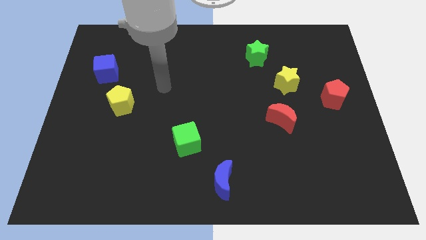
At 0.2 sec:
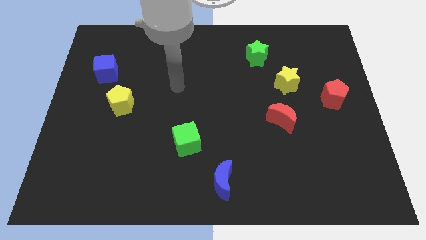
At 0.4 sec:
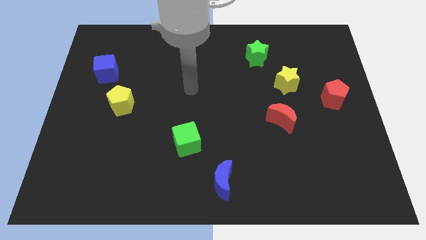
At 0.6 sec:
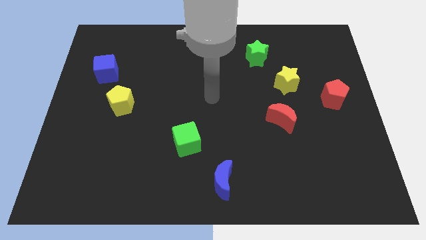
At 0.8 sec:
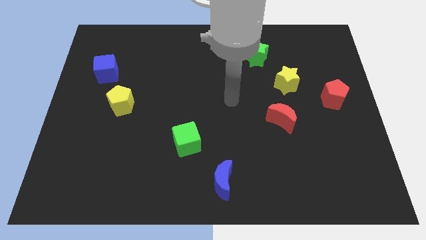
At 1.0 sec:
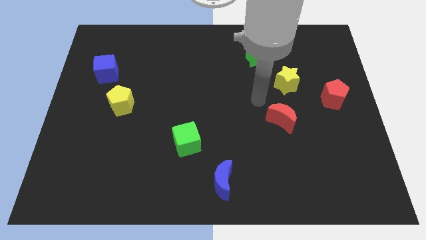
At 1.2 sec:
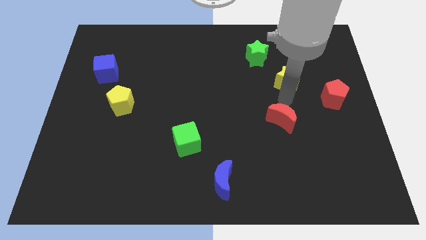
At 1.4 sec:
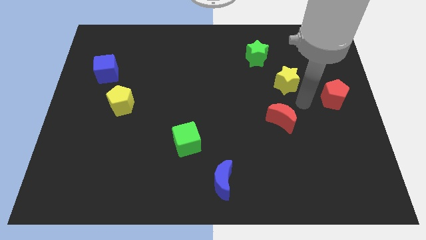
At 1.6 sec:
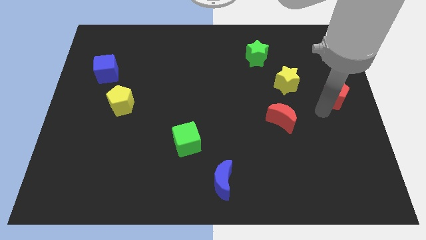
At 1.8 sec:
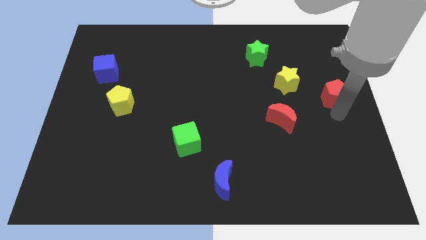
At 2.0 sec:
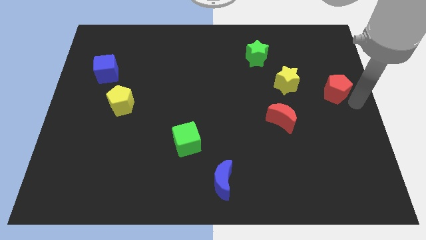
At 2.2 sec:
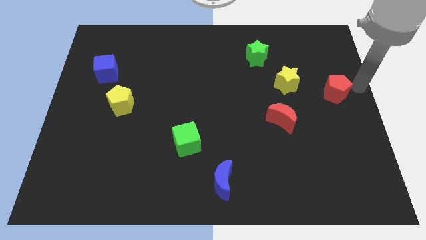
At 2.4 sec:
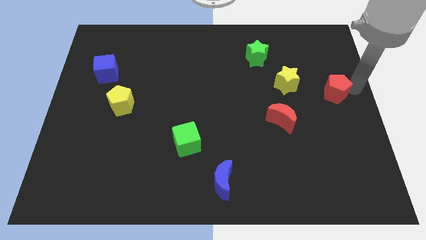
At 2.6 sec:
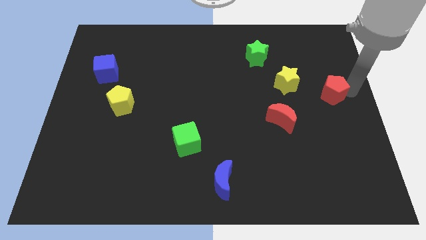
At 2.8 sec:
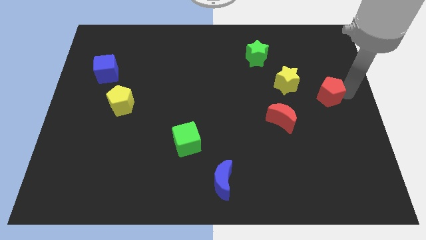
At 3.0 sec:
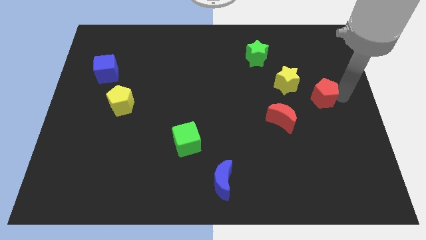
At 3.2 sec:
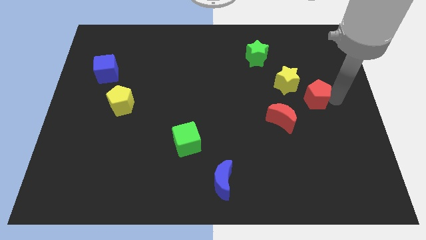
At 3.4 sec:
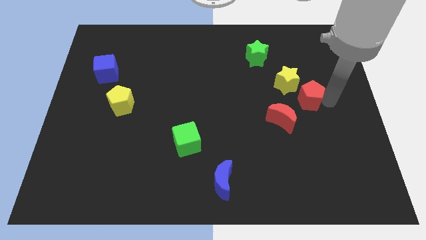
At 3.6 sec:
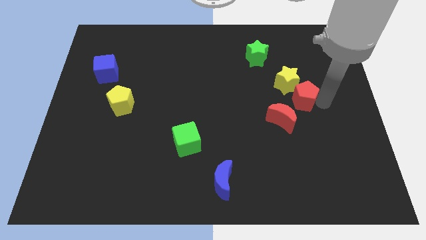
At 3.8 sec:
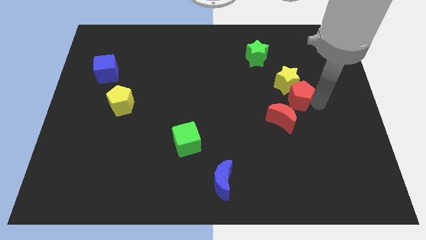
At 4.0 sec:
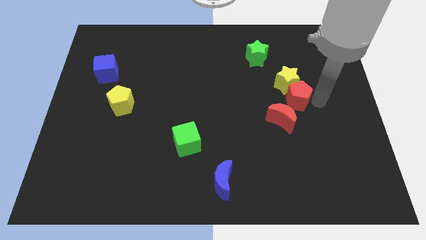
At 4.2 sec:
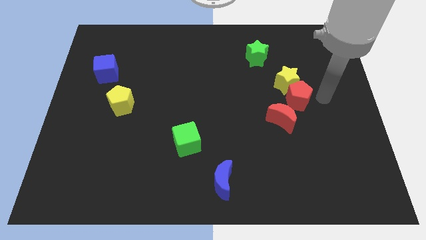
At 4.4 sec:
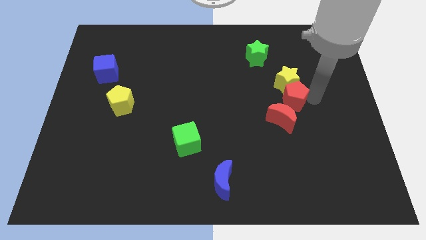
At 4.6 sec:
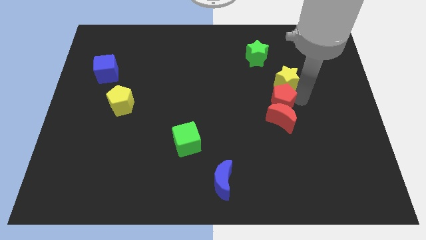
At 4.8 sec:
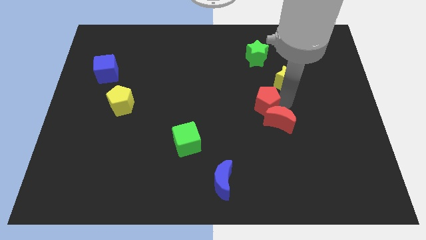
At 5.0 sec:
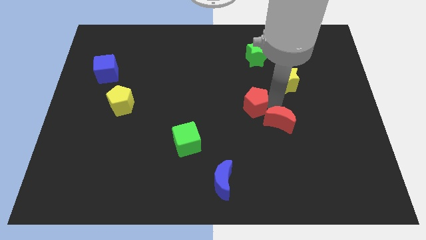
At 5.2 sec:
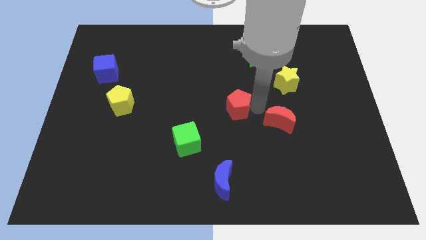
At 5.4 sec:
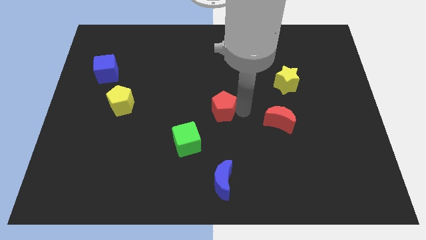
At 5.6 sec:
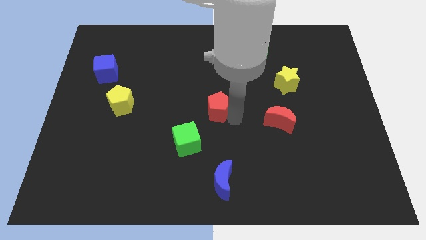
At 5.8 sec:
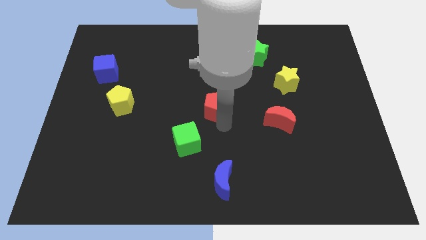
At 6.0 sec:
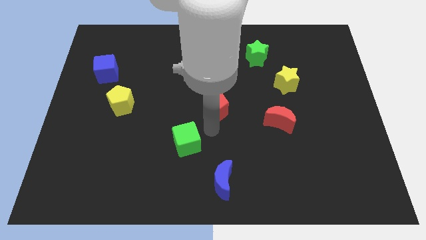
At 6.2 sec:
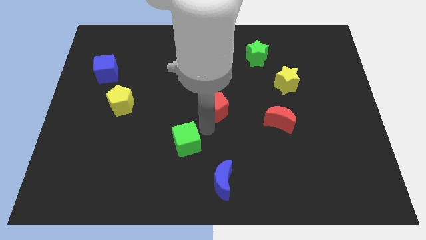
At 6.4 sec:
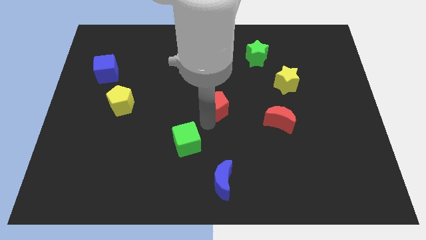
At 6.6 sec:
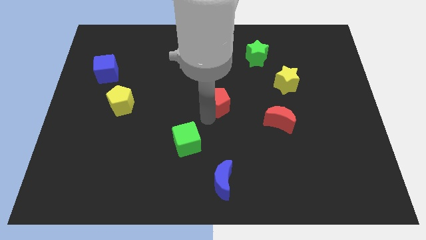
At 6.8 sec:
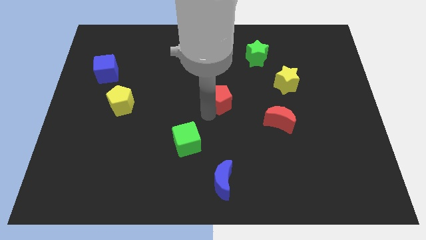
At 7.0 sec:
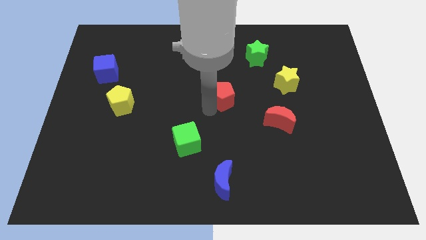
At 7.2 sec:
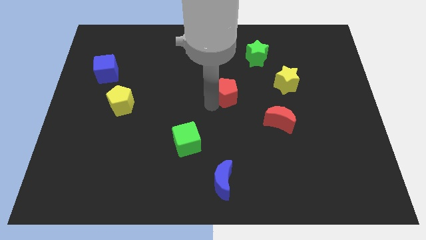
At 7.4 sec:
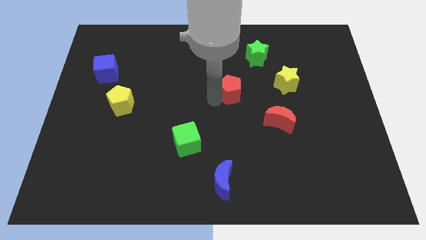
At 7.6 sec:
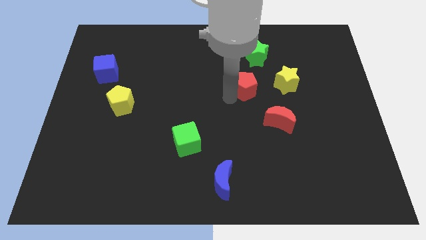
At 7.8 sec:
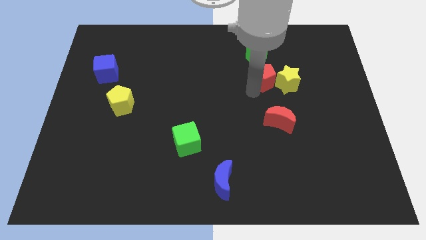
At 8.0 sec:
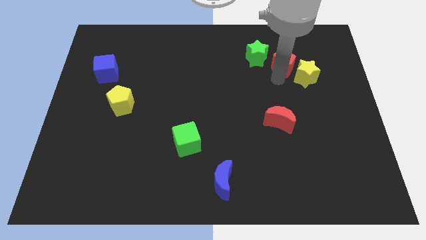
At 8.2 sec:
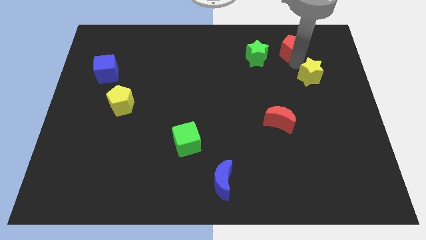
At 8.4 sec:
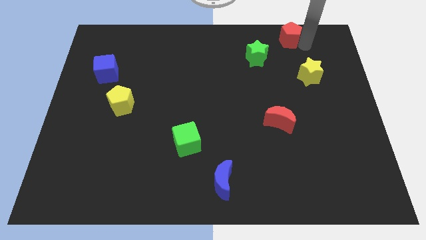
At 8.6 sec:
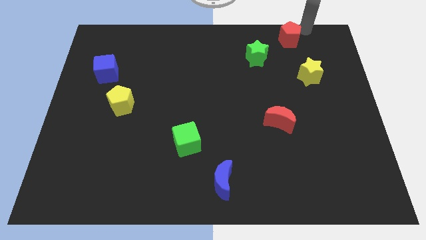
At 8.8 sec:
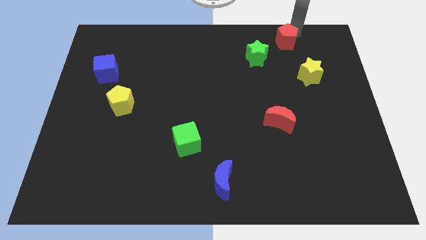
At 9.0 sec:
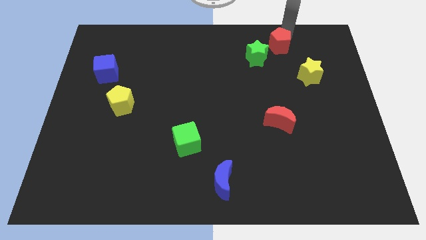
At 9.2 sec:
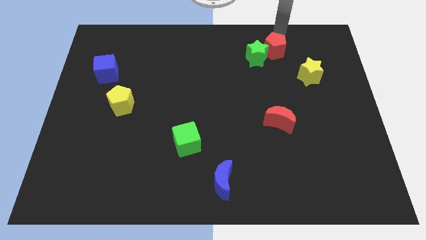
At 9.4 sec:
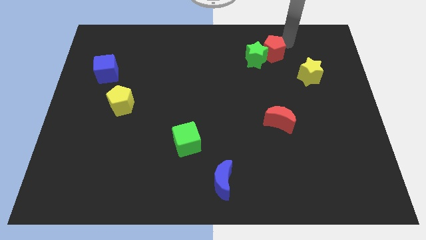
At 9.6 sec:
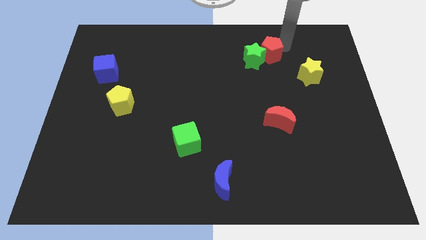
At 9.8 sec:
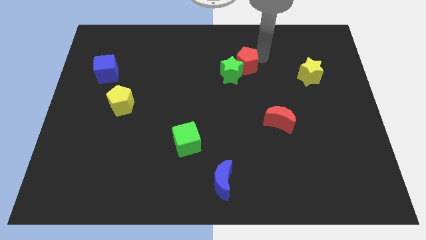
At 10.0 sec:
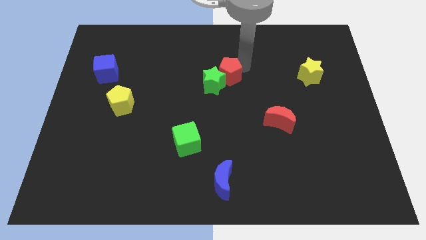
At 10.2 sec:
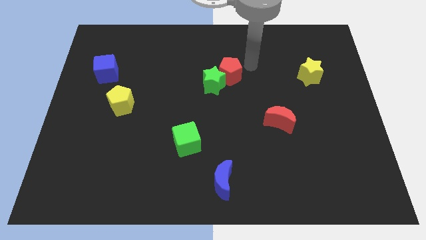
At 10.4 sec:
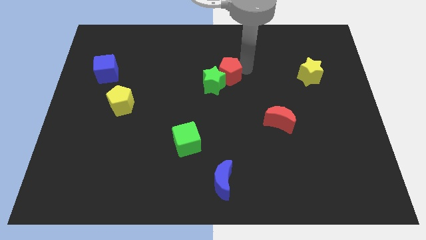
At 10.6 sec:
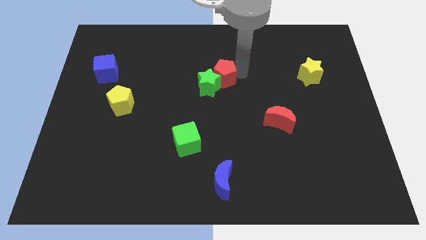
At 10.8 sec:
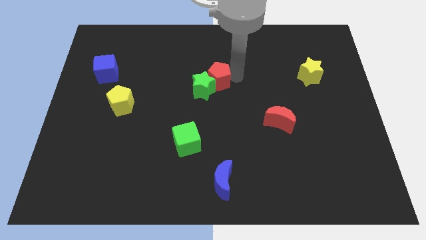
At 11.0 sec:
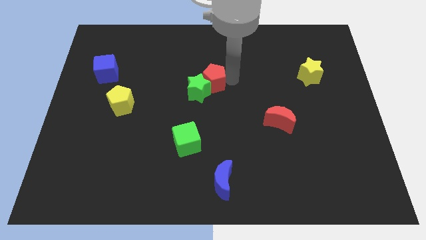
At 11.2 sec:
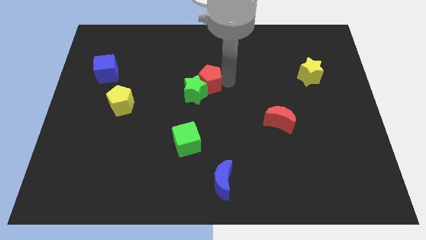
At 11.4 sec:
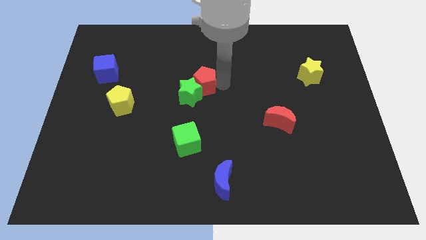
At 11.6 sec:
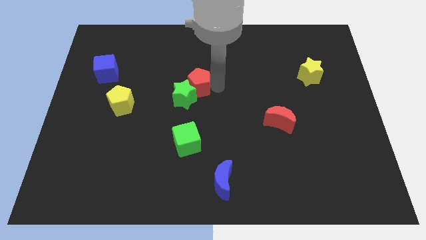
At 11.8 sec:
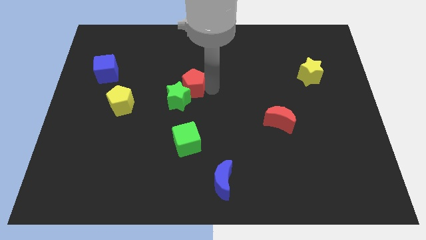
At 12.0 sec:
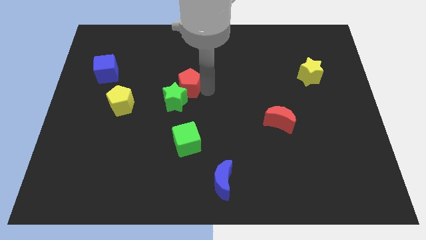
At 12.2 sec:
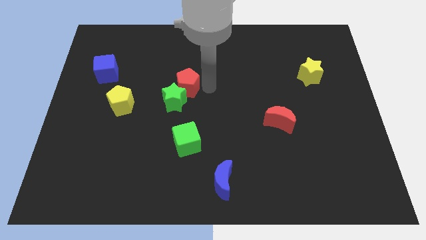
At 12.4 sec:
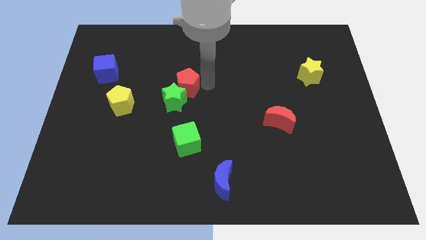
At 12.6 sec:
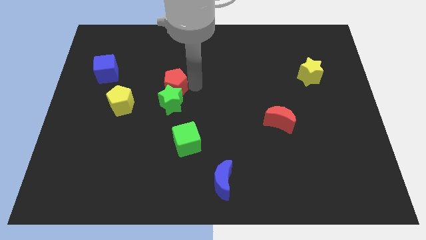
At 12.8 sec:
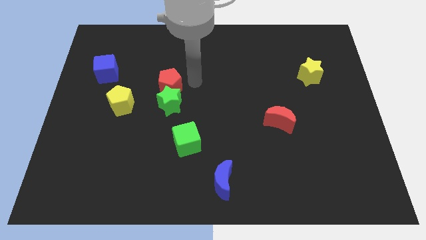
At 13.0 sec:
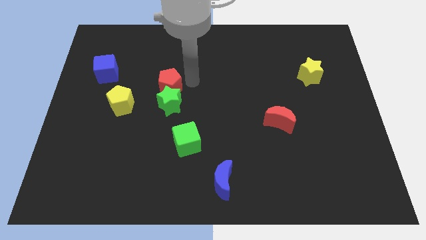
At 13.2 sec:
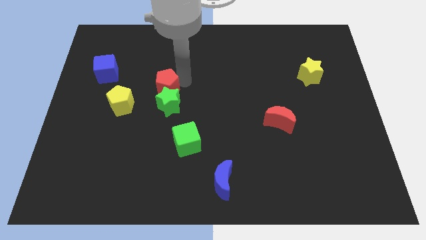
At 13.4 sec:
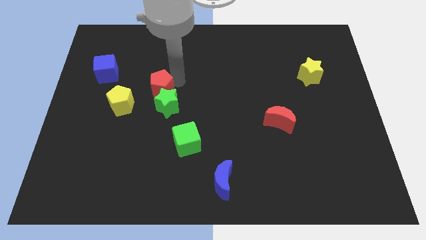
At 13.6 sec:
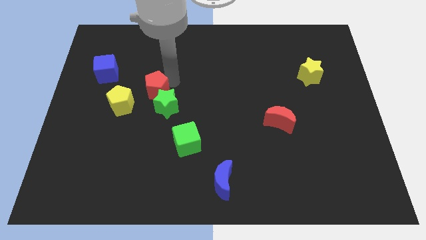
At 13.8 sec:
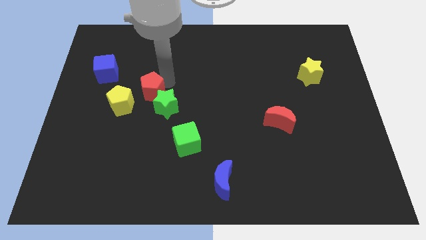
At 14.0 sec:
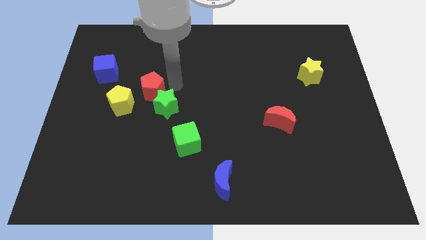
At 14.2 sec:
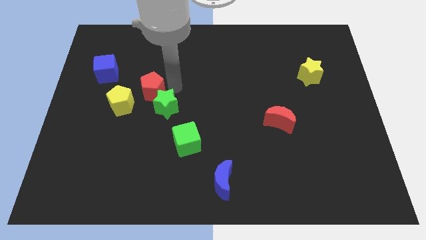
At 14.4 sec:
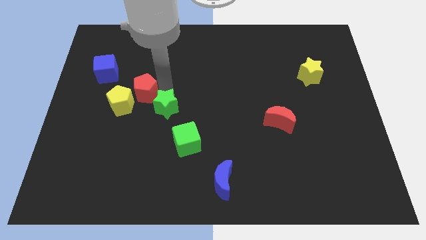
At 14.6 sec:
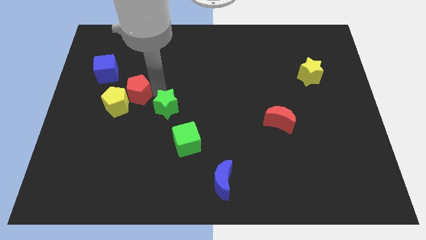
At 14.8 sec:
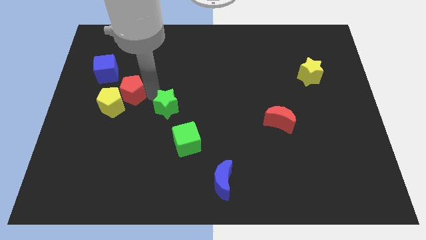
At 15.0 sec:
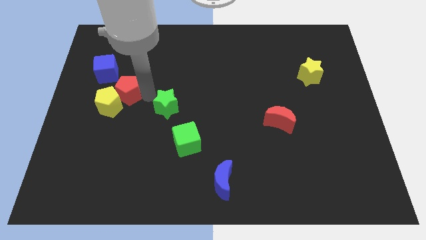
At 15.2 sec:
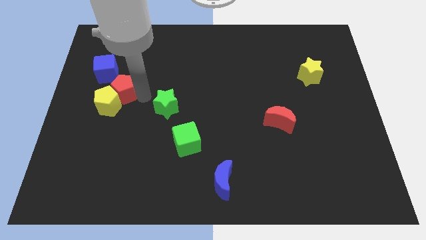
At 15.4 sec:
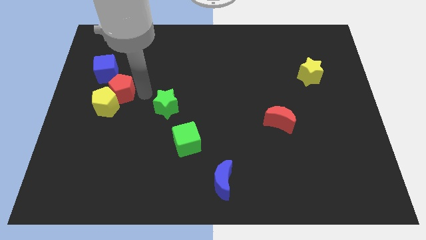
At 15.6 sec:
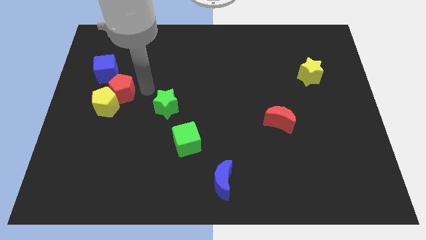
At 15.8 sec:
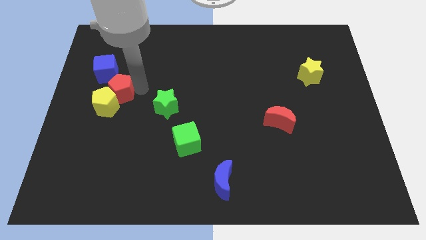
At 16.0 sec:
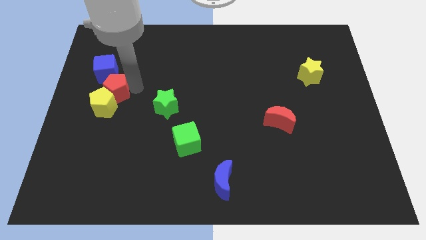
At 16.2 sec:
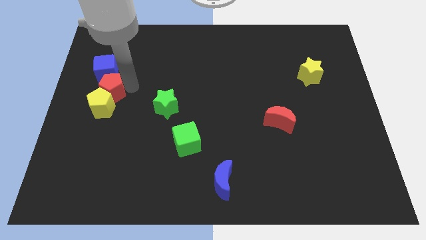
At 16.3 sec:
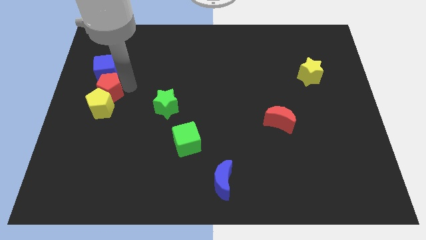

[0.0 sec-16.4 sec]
push the red pentagon to the left side of the board
